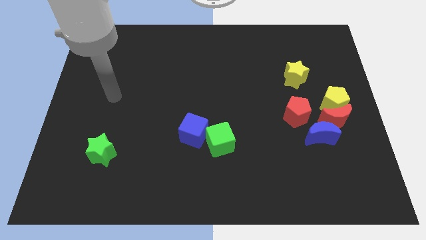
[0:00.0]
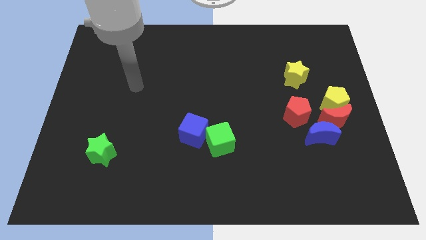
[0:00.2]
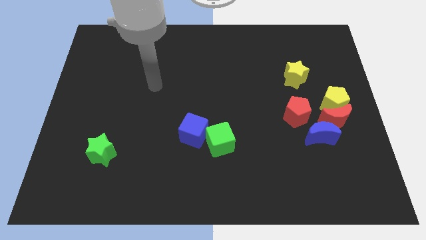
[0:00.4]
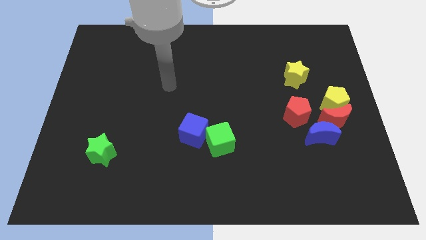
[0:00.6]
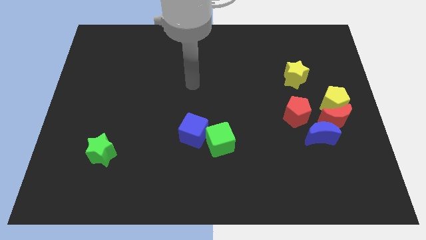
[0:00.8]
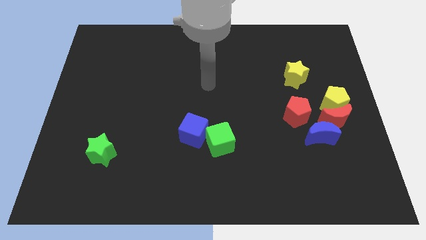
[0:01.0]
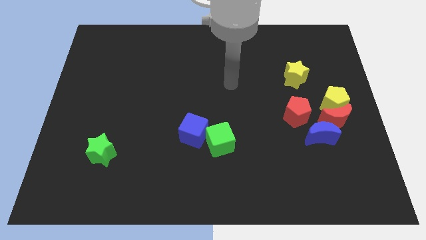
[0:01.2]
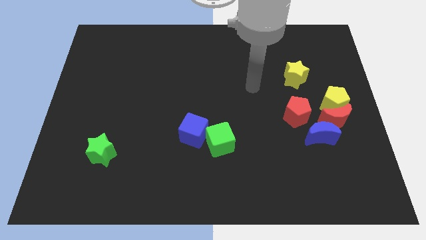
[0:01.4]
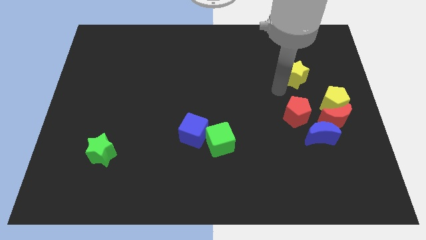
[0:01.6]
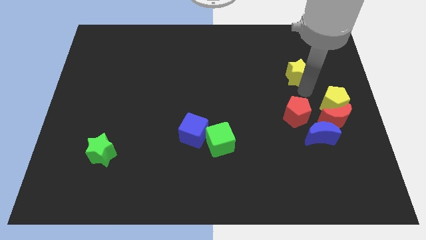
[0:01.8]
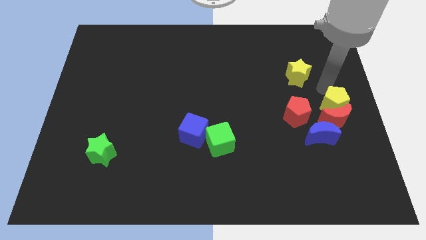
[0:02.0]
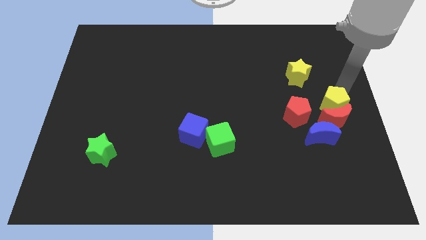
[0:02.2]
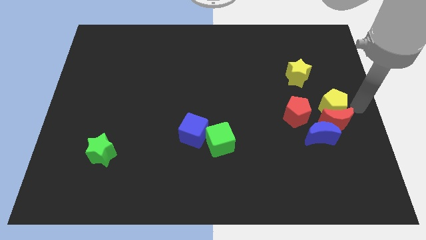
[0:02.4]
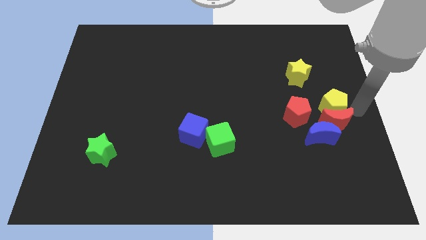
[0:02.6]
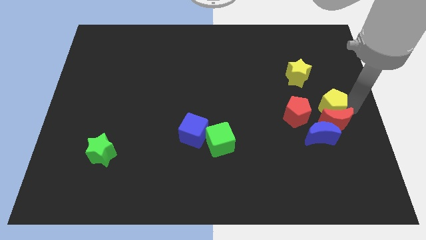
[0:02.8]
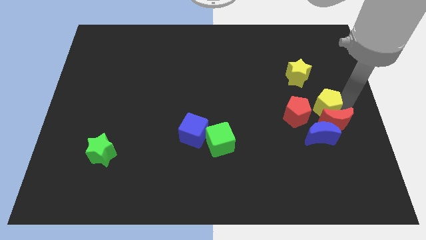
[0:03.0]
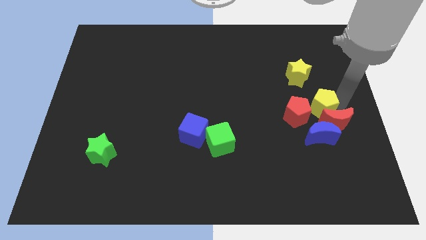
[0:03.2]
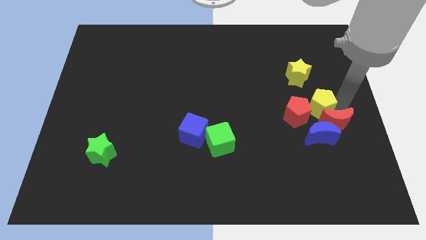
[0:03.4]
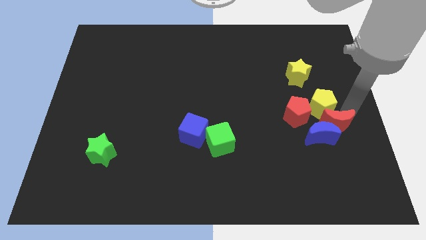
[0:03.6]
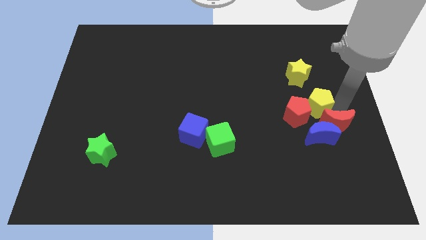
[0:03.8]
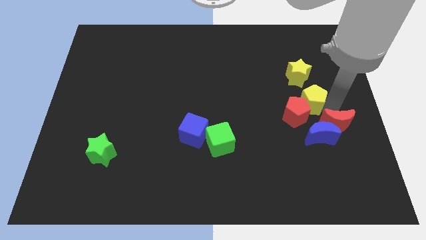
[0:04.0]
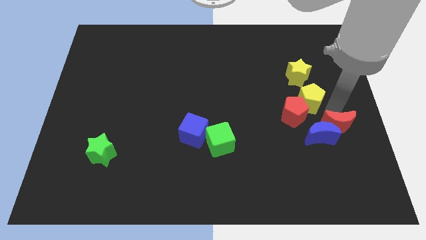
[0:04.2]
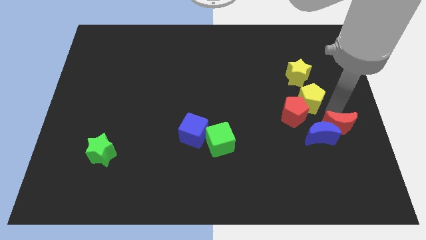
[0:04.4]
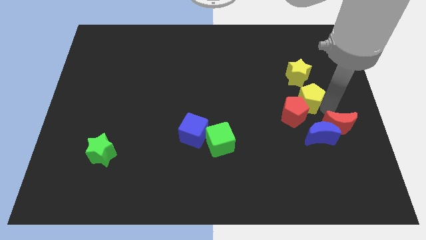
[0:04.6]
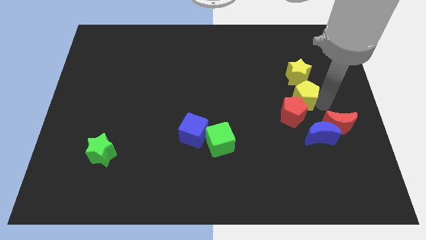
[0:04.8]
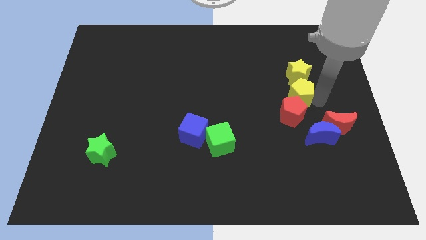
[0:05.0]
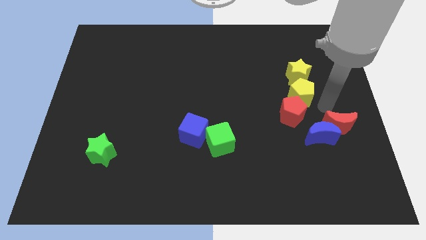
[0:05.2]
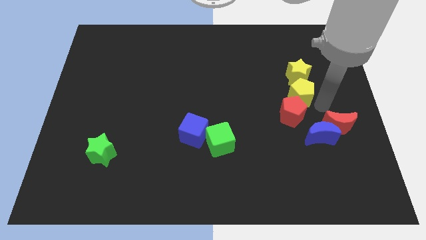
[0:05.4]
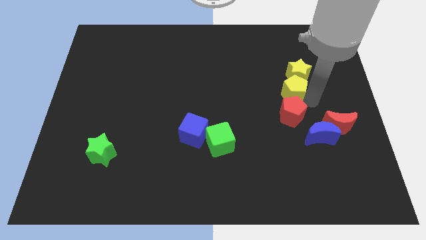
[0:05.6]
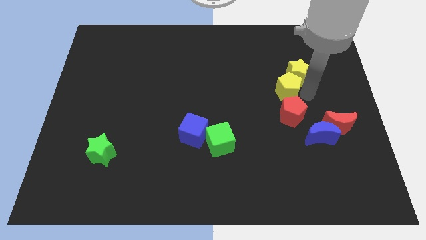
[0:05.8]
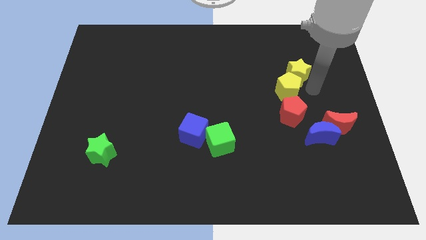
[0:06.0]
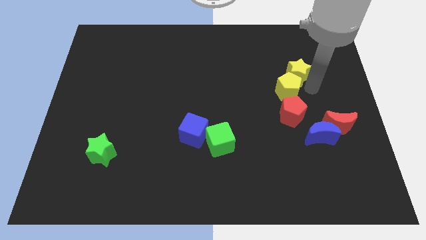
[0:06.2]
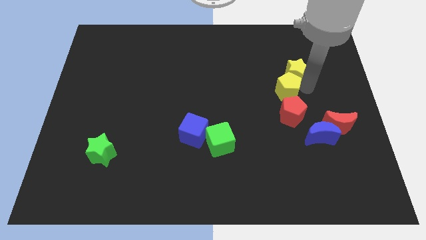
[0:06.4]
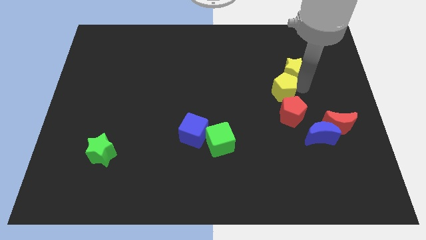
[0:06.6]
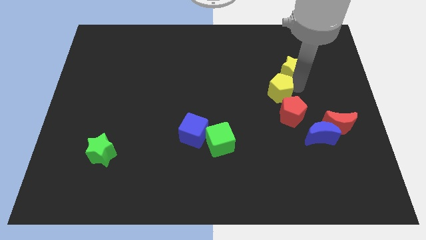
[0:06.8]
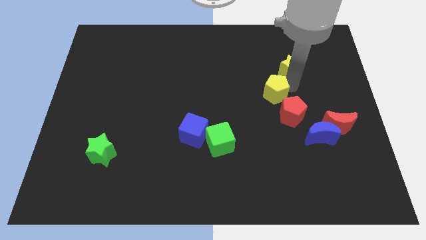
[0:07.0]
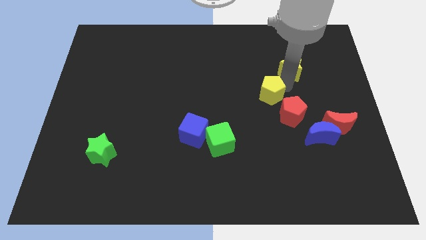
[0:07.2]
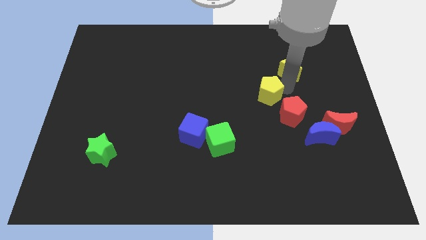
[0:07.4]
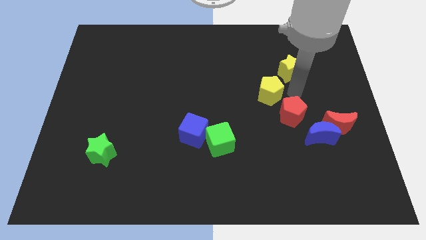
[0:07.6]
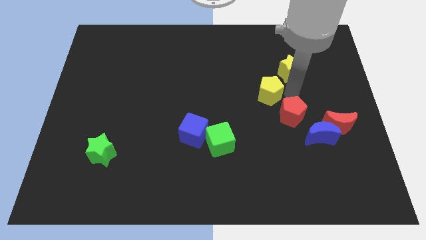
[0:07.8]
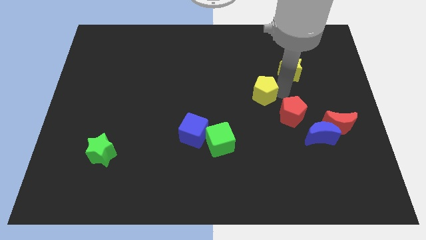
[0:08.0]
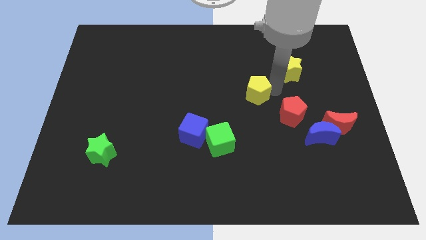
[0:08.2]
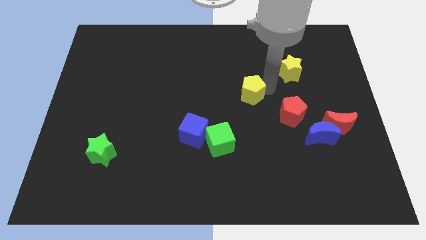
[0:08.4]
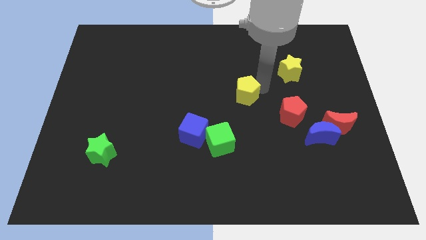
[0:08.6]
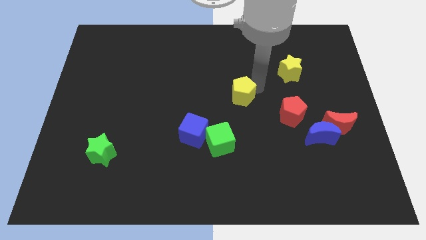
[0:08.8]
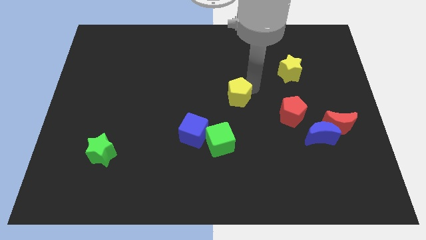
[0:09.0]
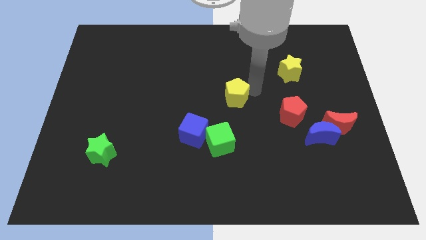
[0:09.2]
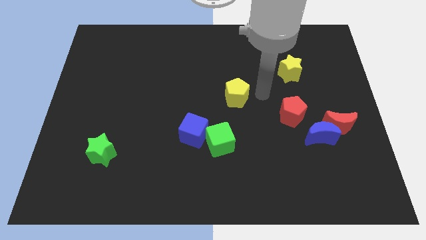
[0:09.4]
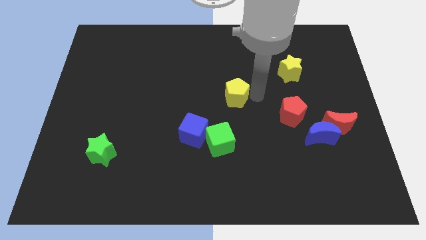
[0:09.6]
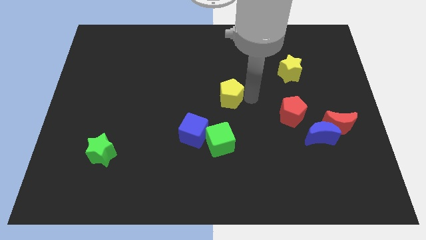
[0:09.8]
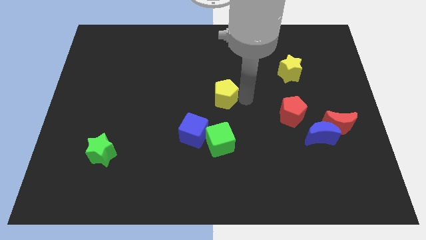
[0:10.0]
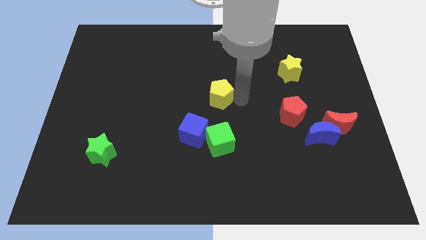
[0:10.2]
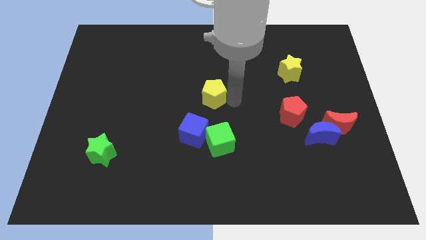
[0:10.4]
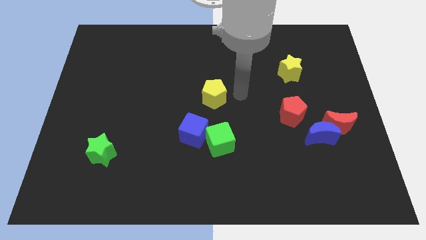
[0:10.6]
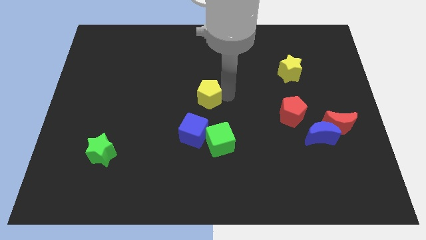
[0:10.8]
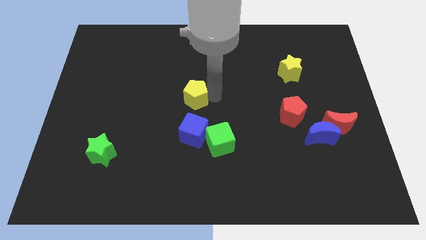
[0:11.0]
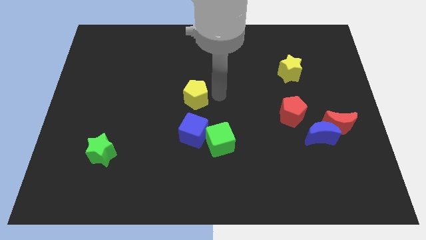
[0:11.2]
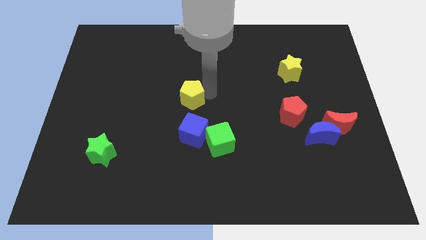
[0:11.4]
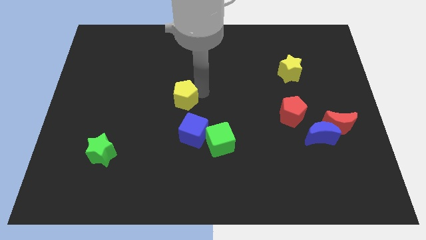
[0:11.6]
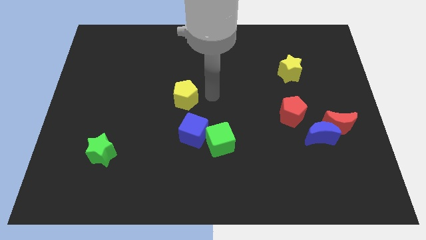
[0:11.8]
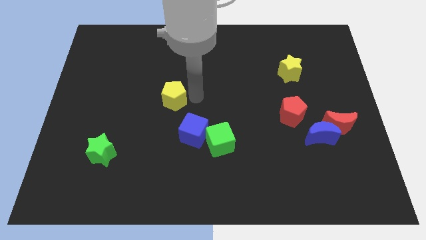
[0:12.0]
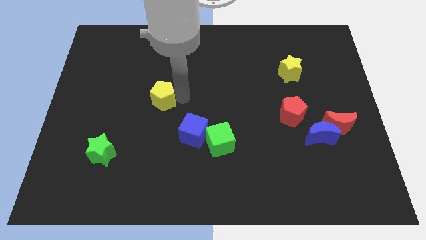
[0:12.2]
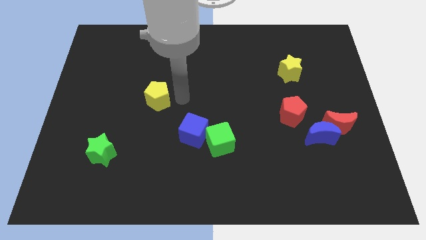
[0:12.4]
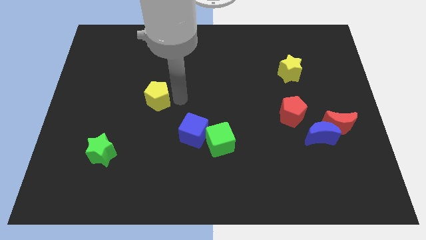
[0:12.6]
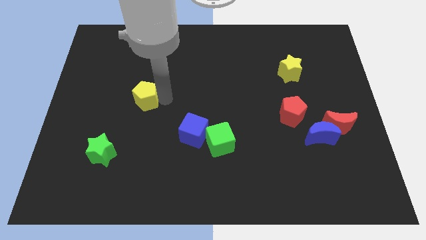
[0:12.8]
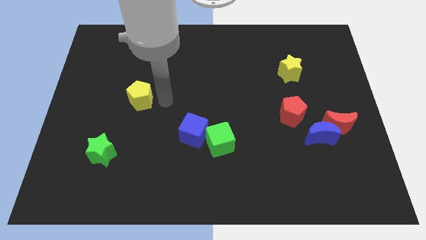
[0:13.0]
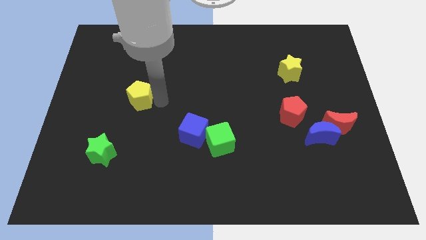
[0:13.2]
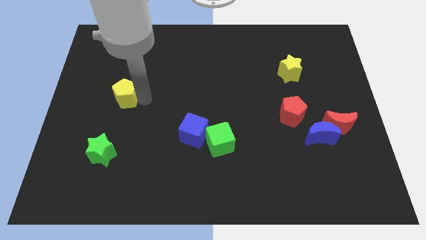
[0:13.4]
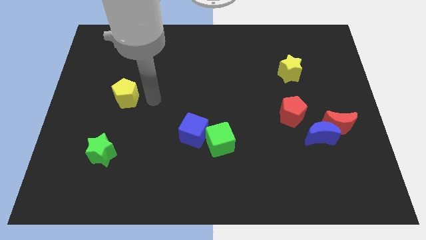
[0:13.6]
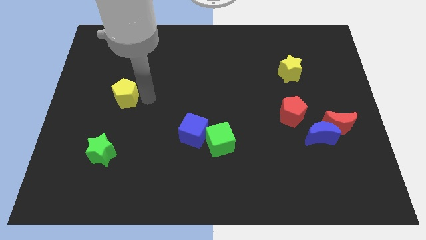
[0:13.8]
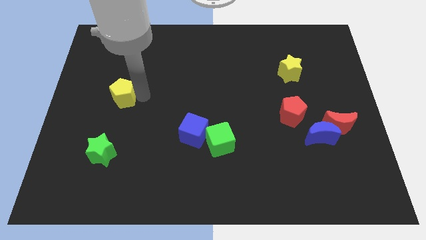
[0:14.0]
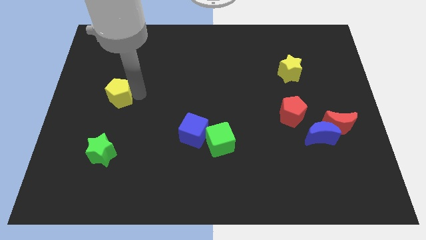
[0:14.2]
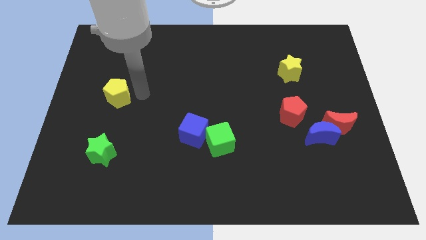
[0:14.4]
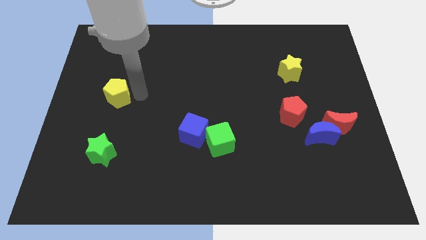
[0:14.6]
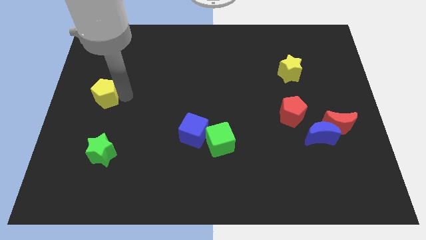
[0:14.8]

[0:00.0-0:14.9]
push the yellow pentagon to the left side of the board
